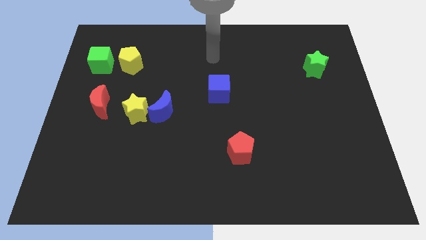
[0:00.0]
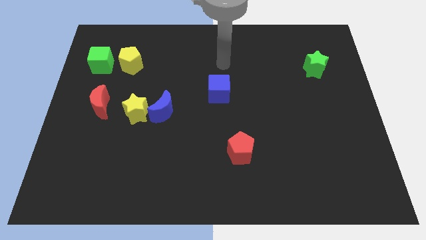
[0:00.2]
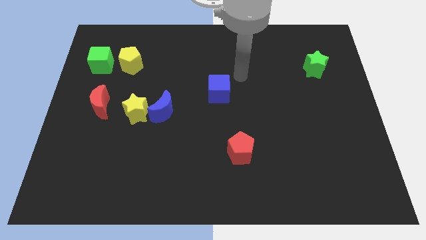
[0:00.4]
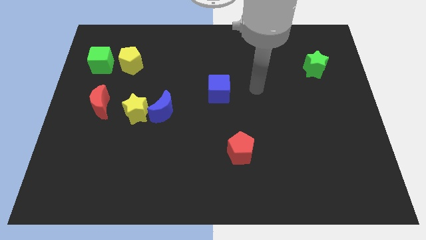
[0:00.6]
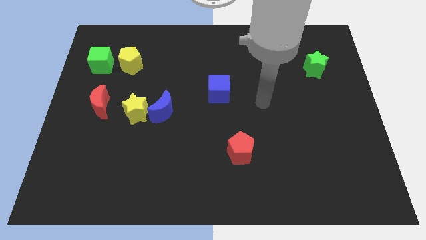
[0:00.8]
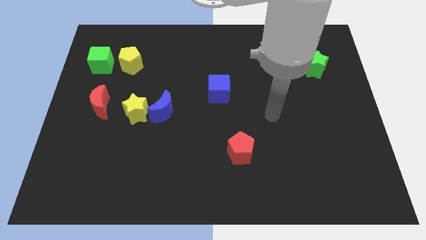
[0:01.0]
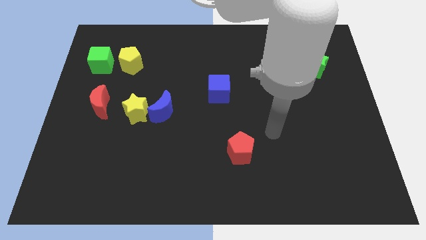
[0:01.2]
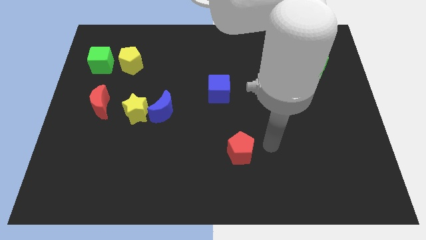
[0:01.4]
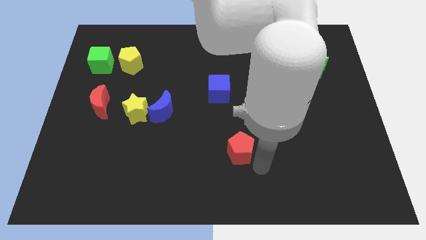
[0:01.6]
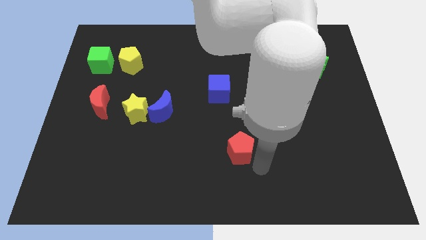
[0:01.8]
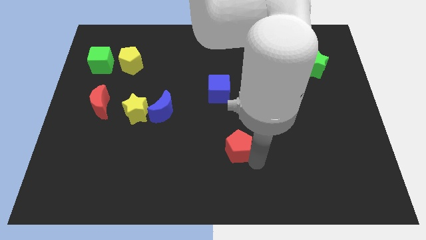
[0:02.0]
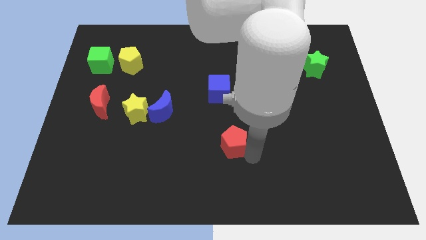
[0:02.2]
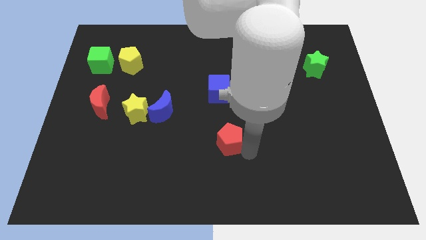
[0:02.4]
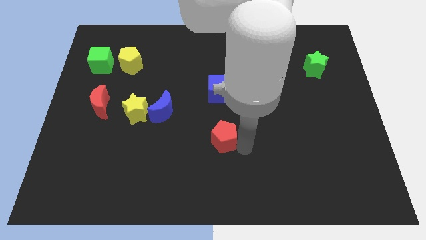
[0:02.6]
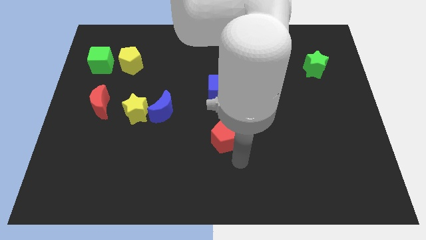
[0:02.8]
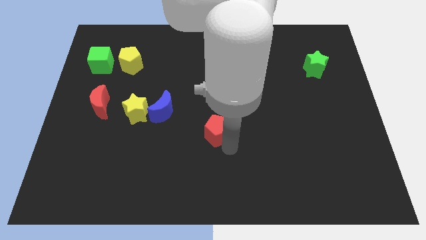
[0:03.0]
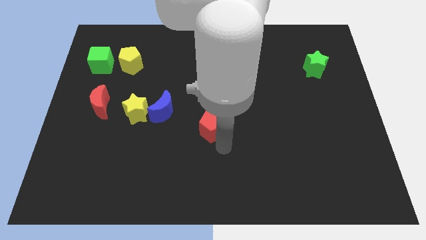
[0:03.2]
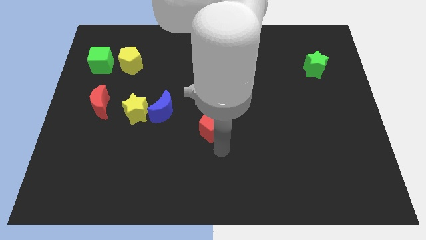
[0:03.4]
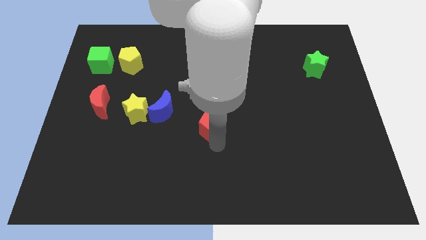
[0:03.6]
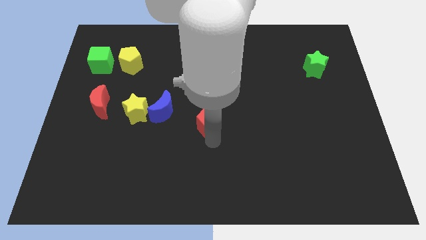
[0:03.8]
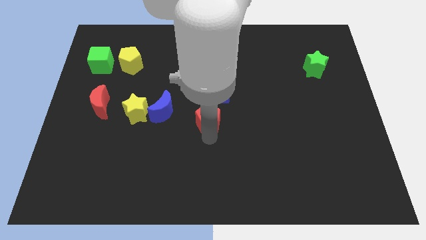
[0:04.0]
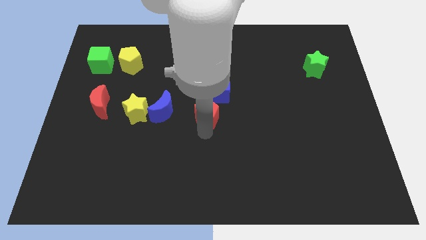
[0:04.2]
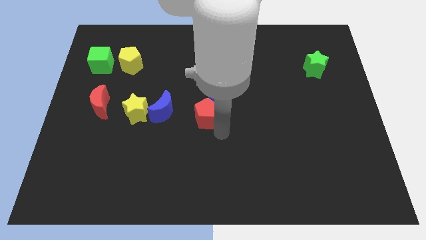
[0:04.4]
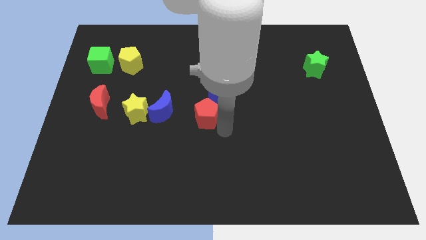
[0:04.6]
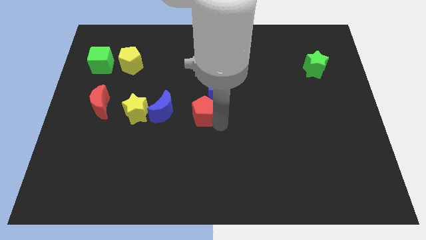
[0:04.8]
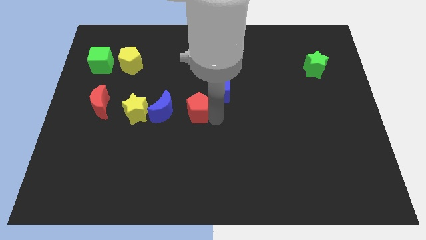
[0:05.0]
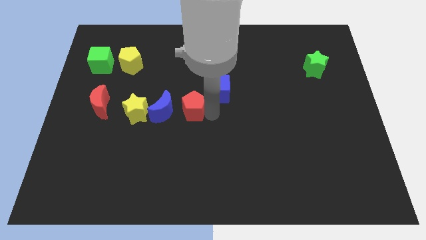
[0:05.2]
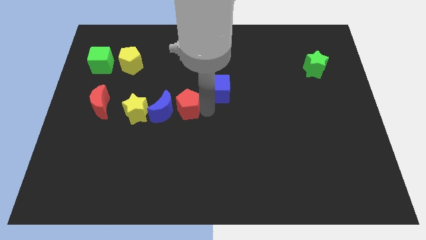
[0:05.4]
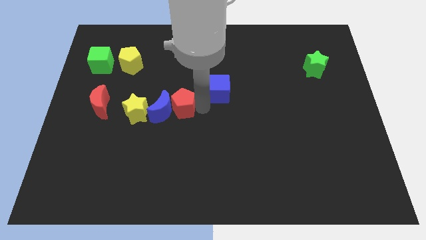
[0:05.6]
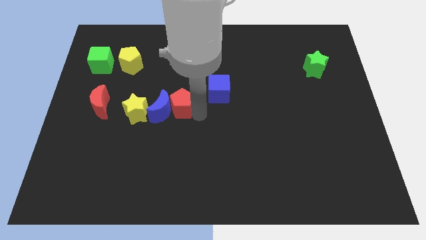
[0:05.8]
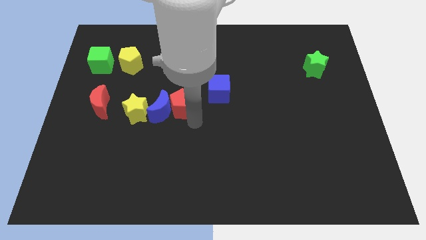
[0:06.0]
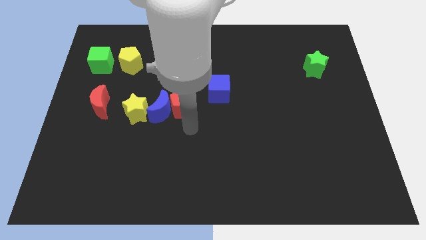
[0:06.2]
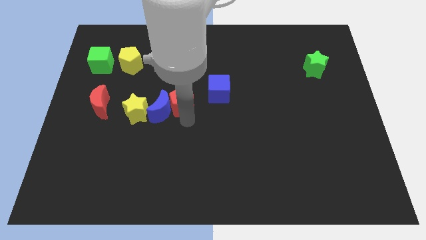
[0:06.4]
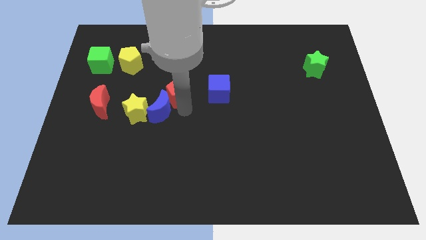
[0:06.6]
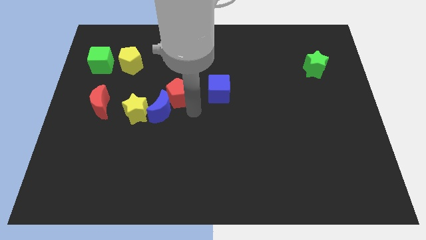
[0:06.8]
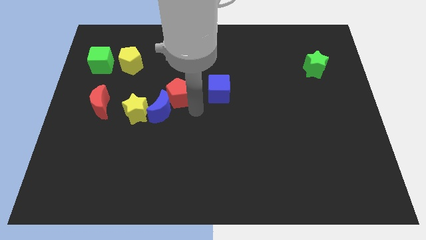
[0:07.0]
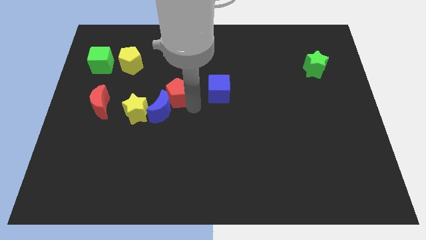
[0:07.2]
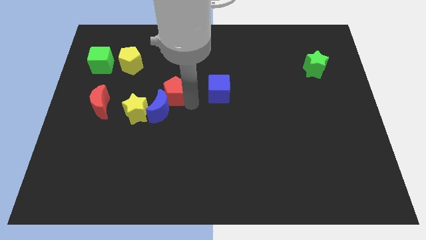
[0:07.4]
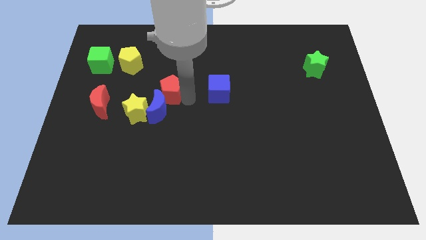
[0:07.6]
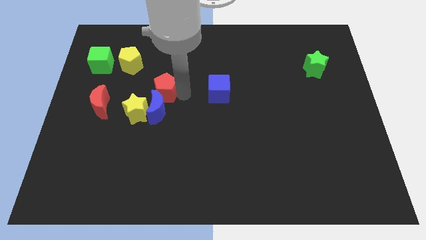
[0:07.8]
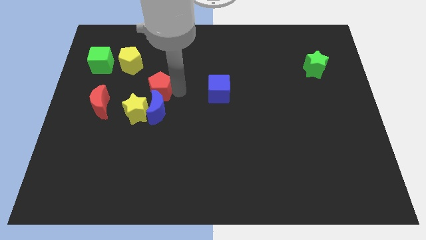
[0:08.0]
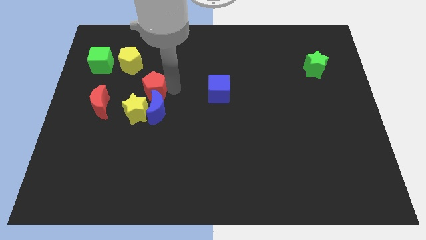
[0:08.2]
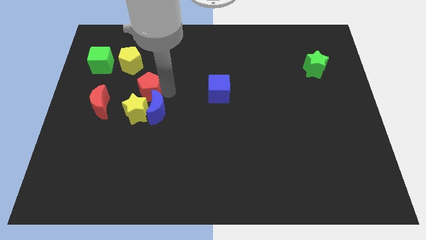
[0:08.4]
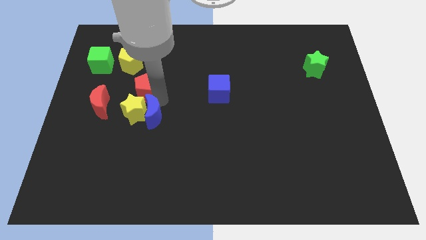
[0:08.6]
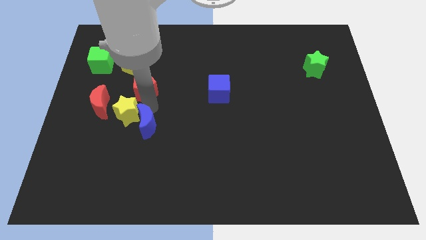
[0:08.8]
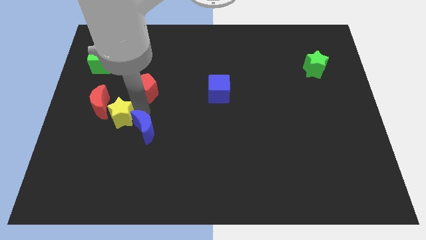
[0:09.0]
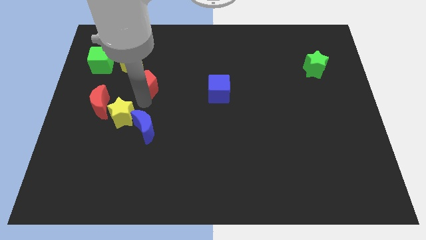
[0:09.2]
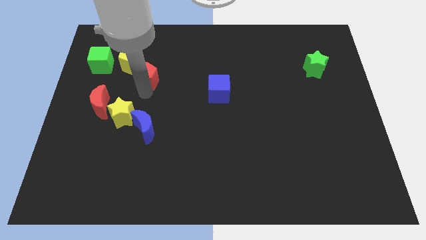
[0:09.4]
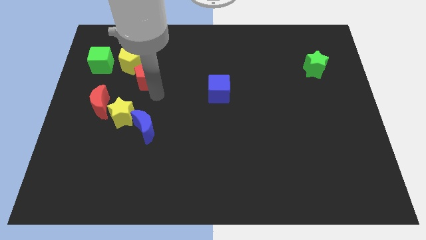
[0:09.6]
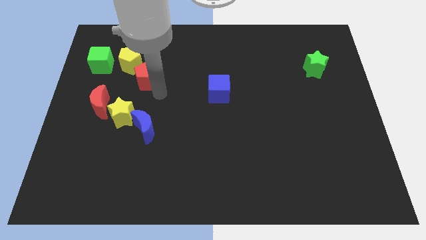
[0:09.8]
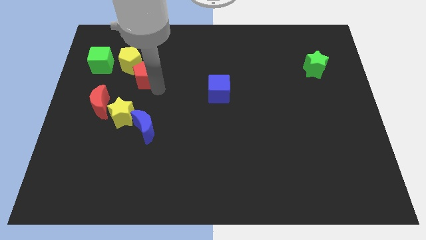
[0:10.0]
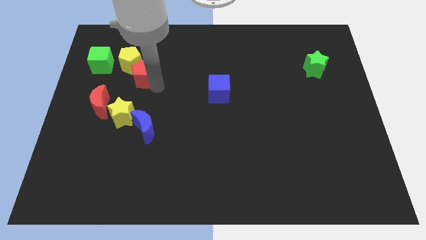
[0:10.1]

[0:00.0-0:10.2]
slide the red pentagon to the yellow pentagon

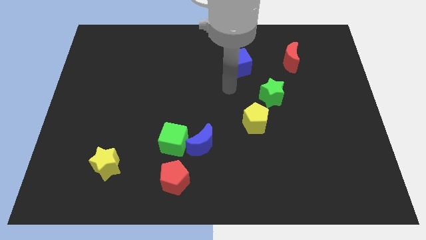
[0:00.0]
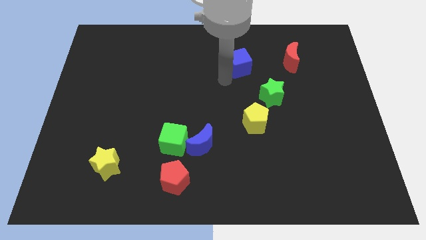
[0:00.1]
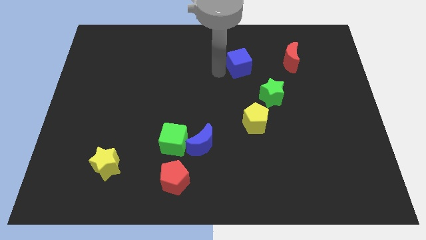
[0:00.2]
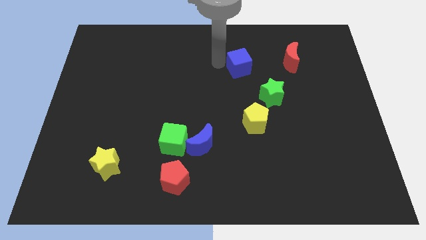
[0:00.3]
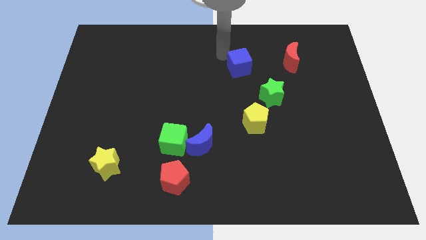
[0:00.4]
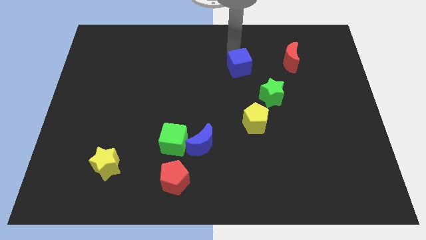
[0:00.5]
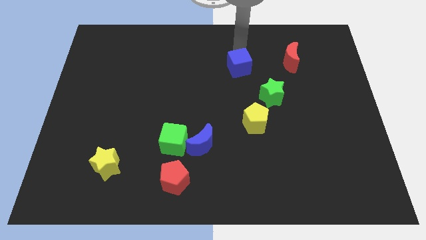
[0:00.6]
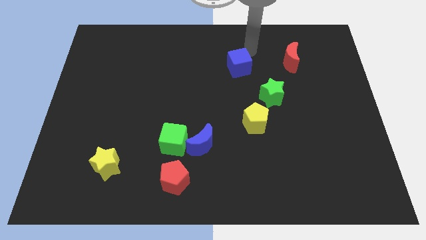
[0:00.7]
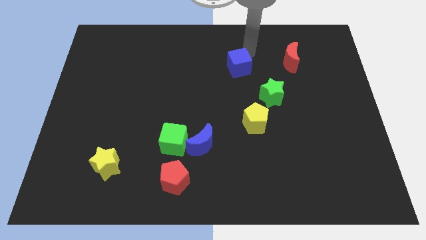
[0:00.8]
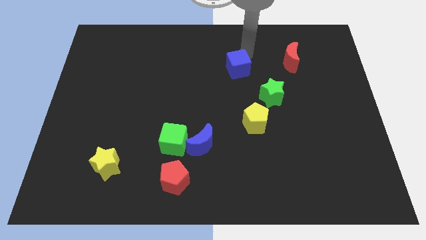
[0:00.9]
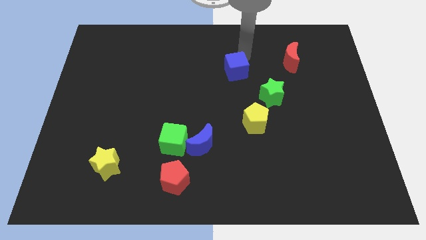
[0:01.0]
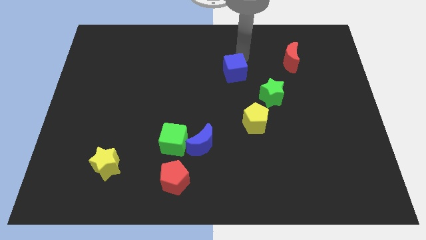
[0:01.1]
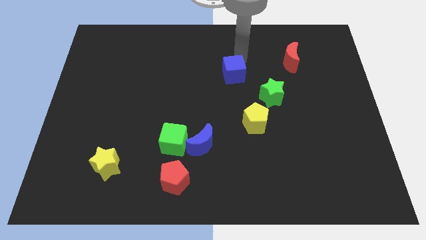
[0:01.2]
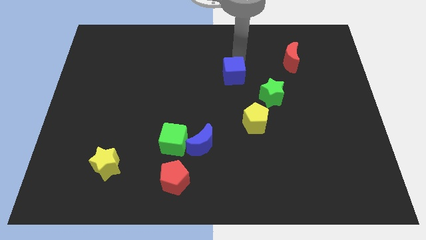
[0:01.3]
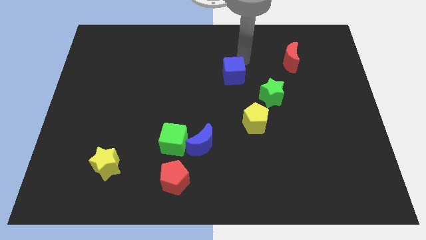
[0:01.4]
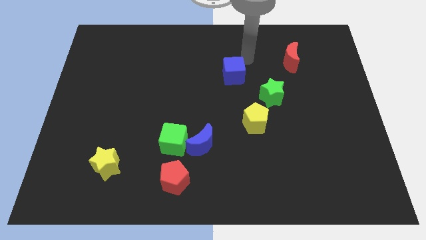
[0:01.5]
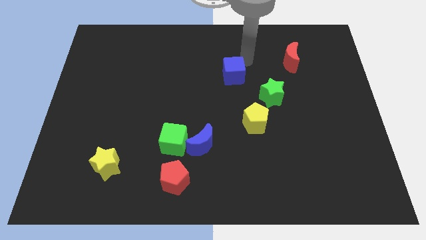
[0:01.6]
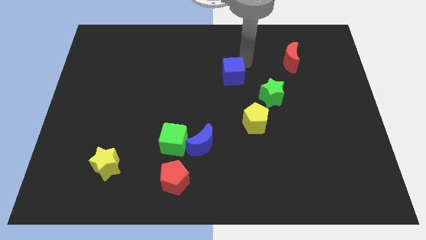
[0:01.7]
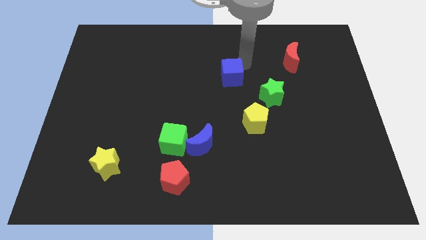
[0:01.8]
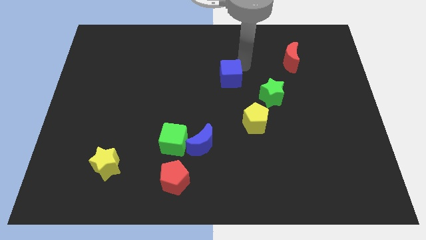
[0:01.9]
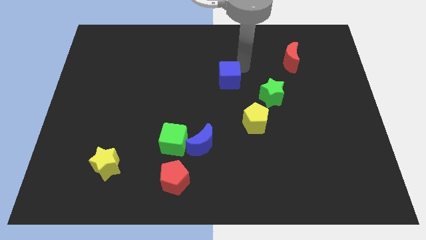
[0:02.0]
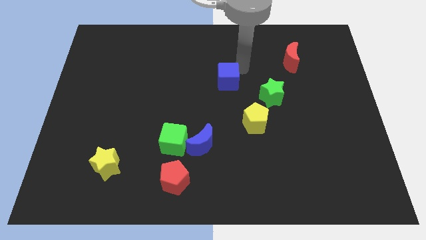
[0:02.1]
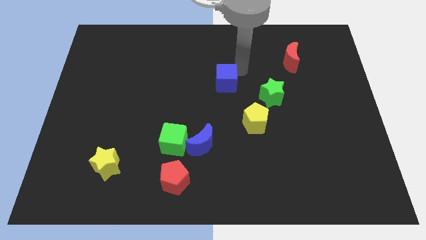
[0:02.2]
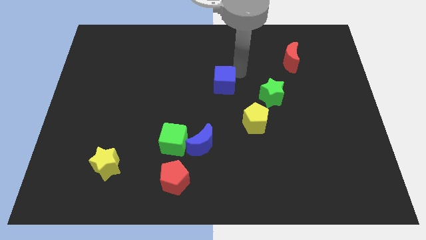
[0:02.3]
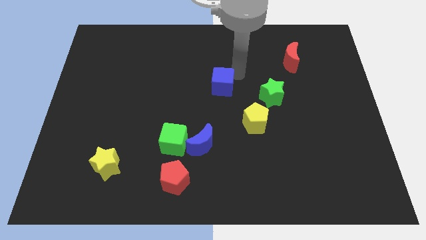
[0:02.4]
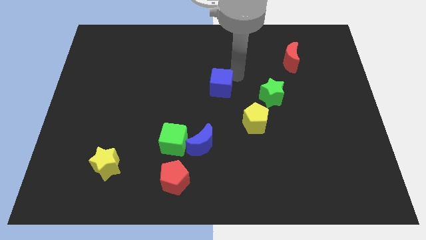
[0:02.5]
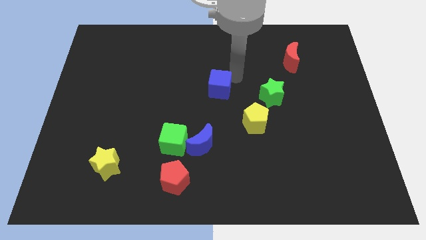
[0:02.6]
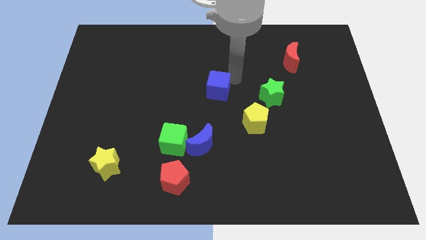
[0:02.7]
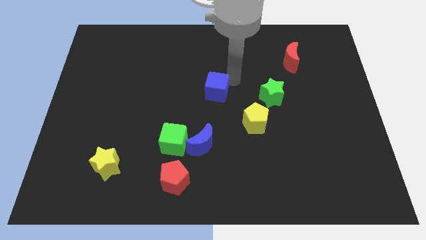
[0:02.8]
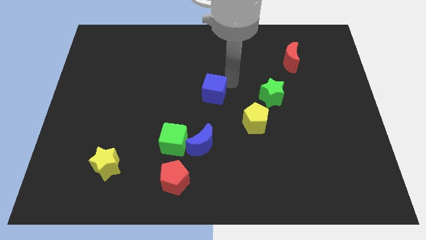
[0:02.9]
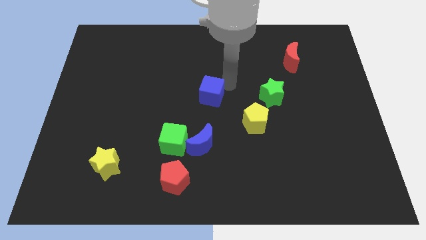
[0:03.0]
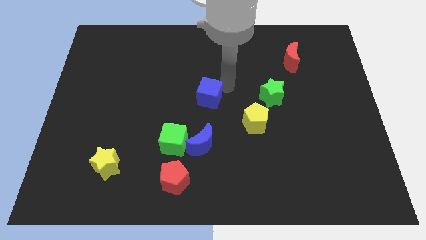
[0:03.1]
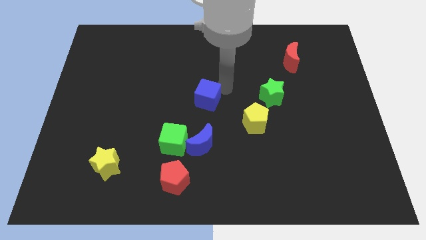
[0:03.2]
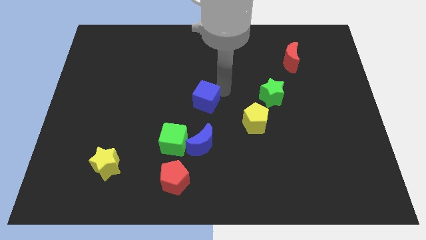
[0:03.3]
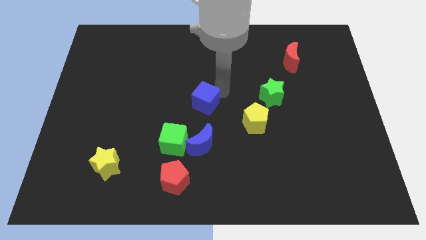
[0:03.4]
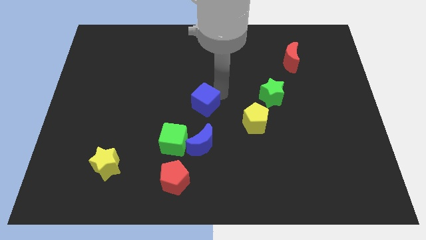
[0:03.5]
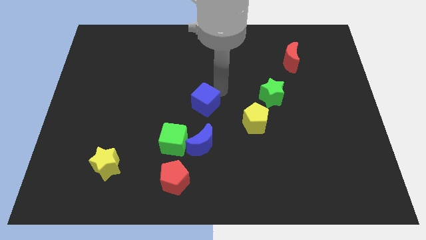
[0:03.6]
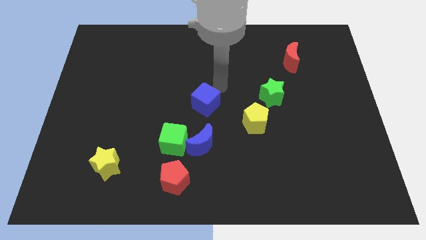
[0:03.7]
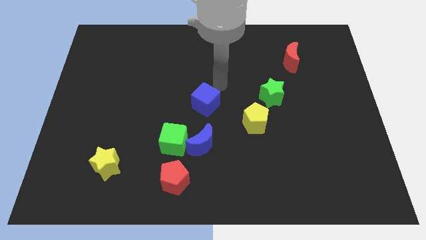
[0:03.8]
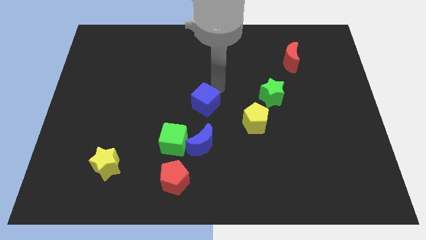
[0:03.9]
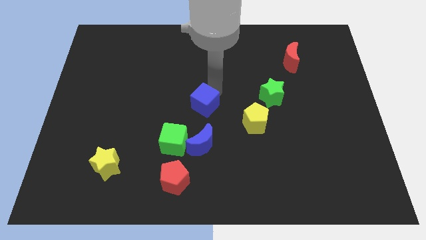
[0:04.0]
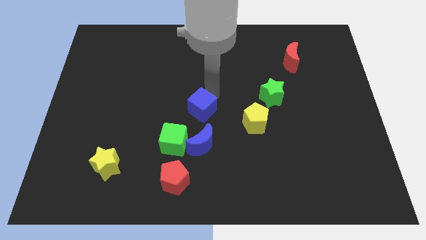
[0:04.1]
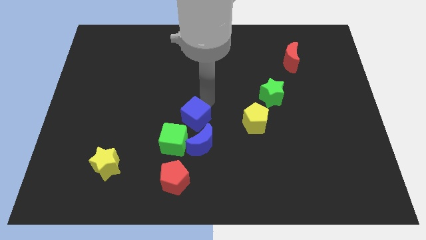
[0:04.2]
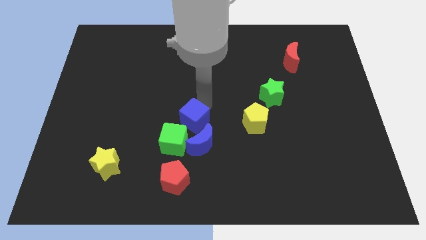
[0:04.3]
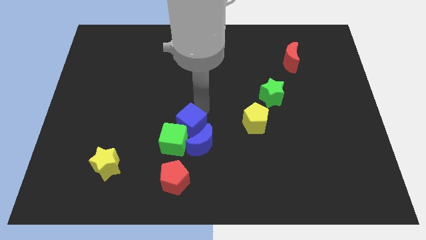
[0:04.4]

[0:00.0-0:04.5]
move the blue cube towards the green cube
